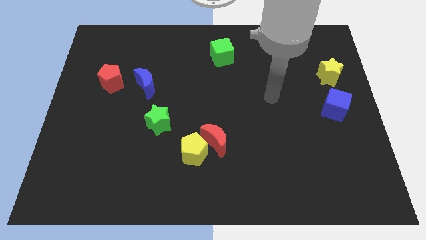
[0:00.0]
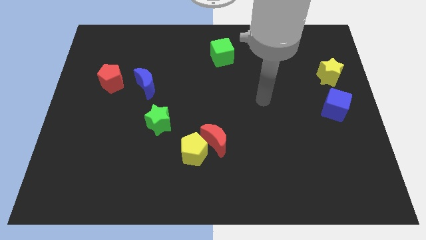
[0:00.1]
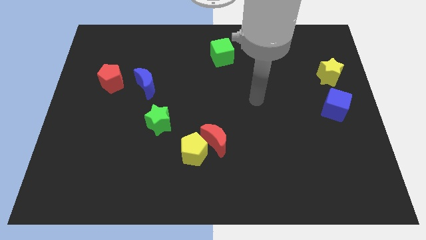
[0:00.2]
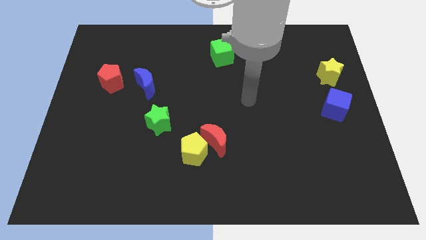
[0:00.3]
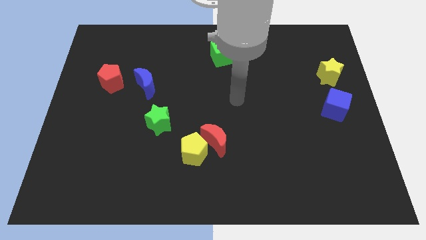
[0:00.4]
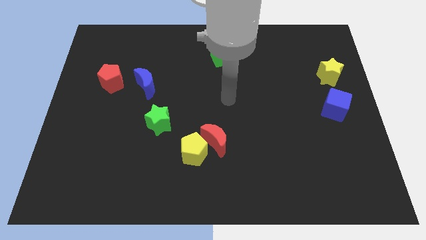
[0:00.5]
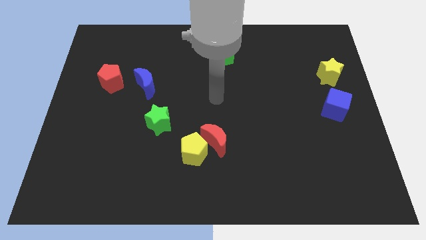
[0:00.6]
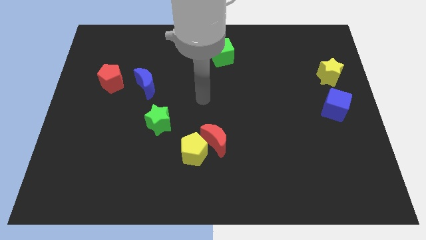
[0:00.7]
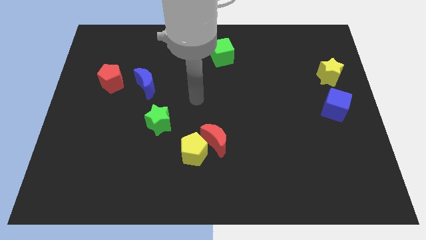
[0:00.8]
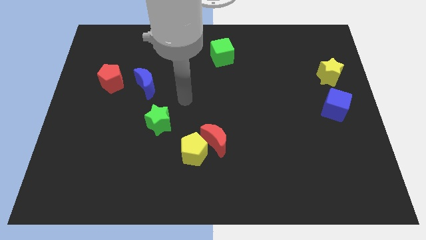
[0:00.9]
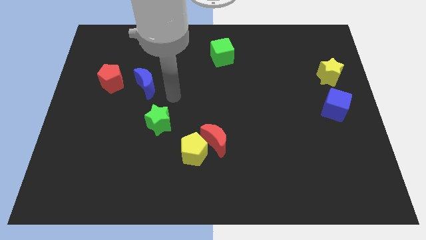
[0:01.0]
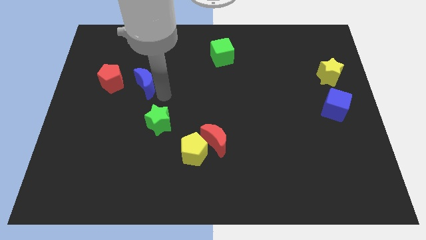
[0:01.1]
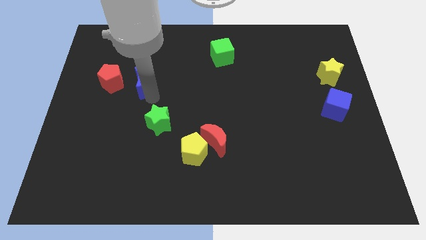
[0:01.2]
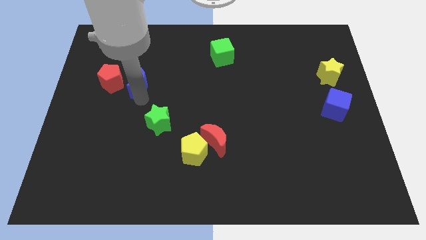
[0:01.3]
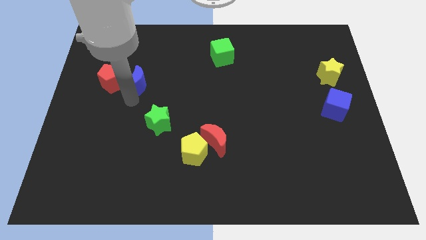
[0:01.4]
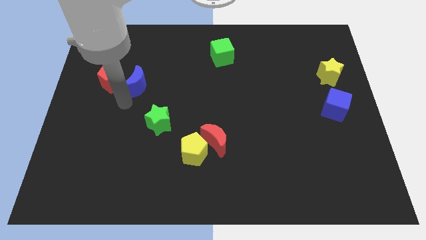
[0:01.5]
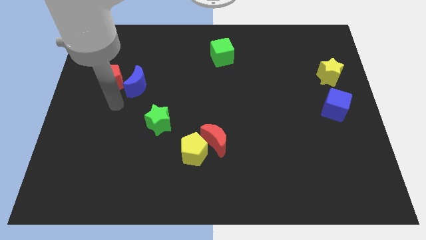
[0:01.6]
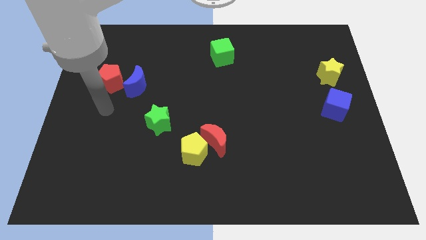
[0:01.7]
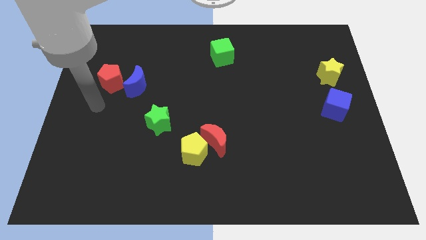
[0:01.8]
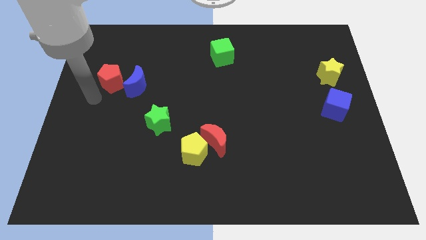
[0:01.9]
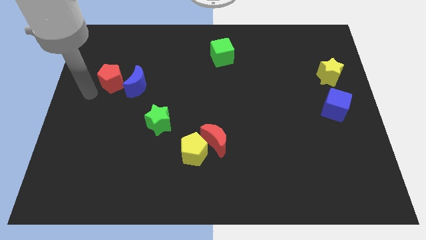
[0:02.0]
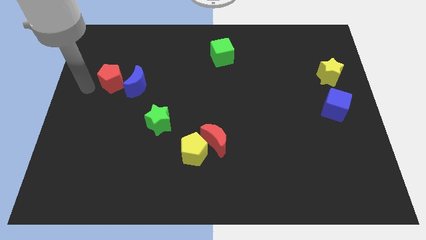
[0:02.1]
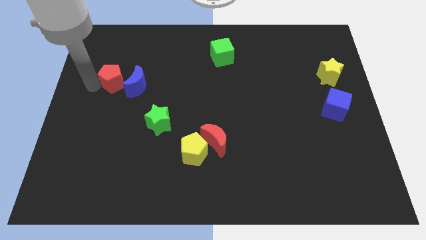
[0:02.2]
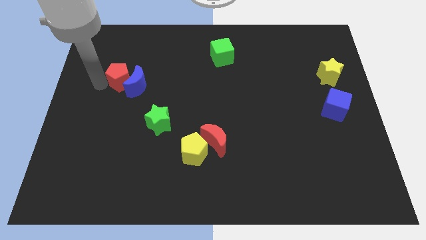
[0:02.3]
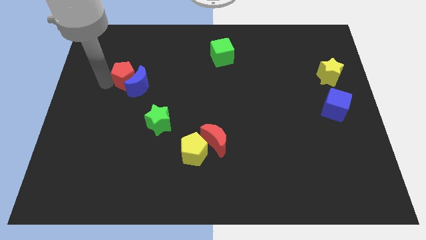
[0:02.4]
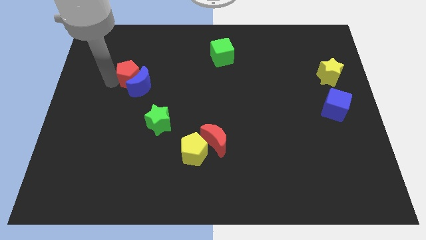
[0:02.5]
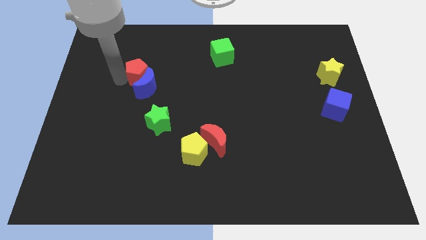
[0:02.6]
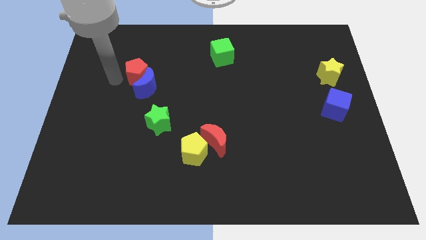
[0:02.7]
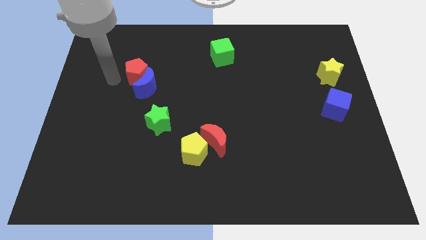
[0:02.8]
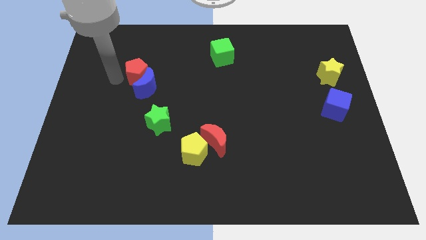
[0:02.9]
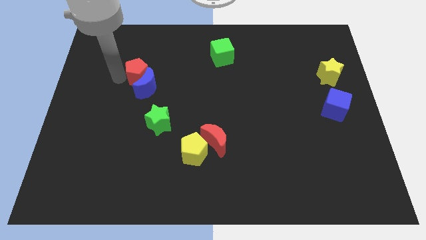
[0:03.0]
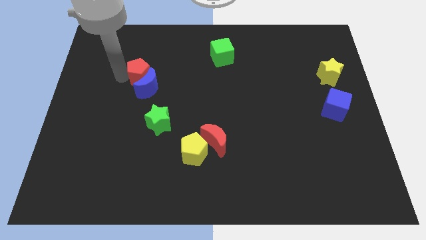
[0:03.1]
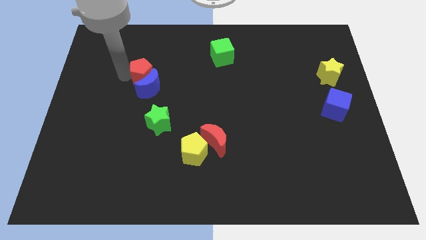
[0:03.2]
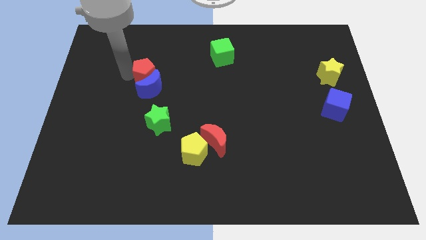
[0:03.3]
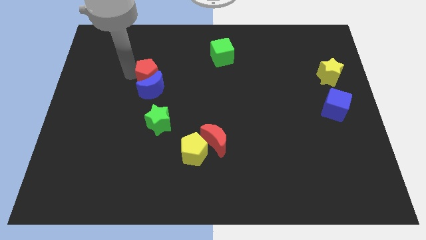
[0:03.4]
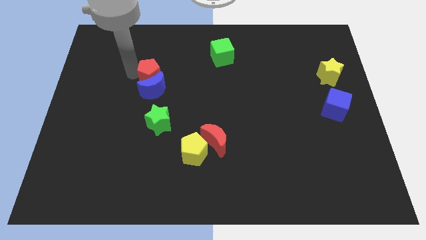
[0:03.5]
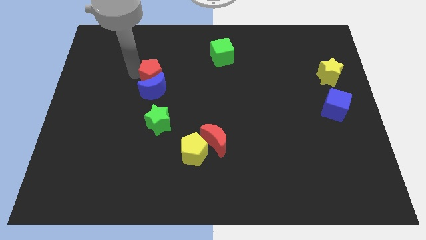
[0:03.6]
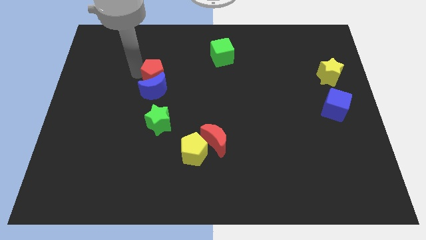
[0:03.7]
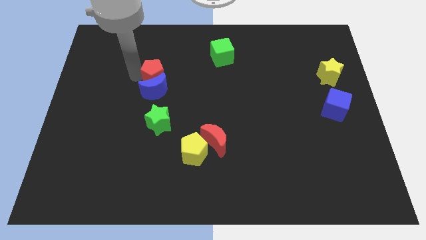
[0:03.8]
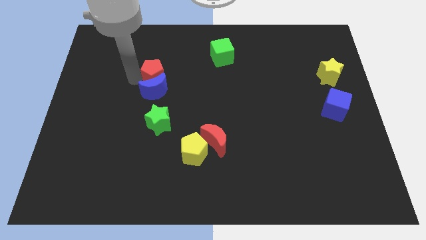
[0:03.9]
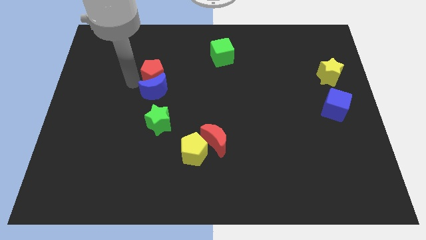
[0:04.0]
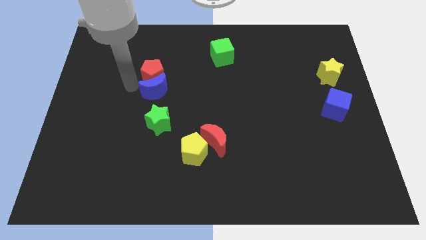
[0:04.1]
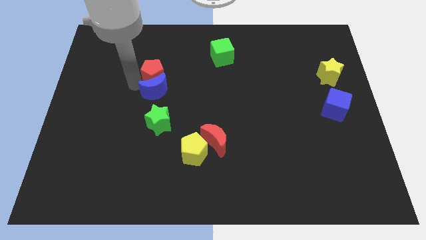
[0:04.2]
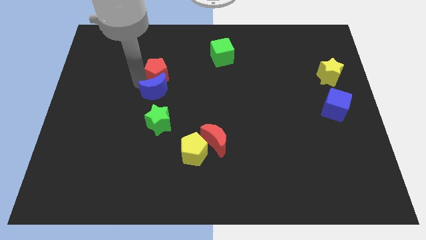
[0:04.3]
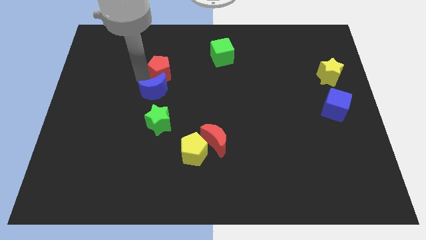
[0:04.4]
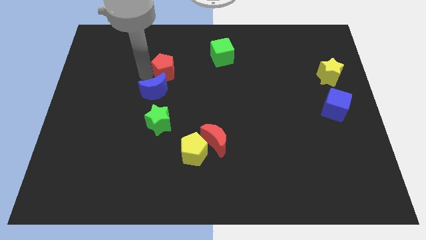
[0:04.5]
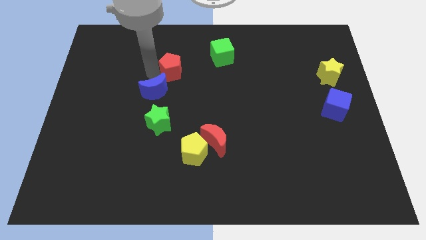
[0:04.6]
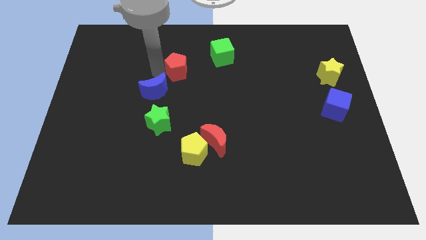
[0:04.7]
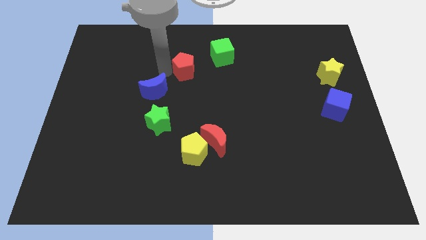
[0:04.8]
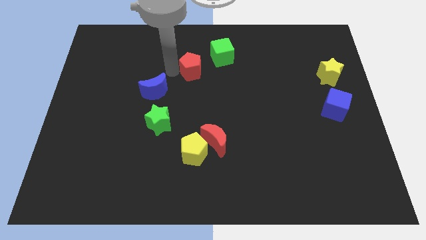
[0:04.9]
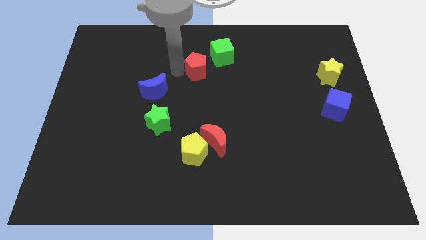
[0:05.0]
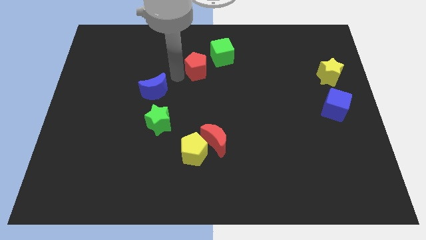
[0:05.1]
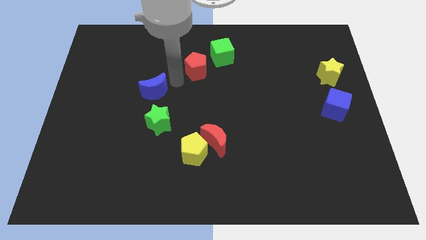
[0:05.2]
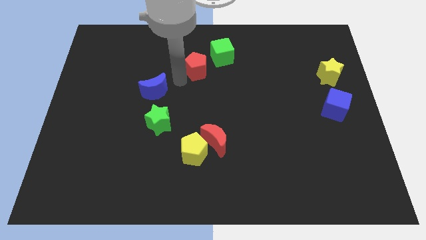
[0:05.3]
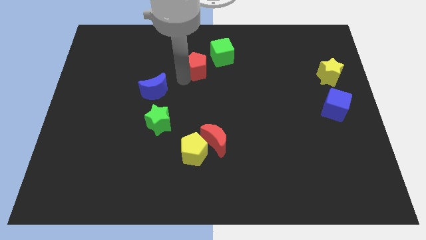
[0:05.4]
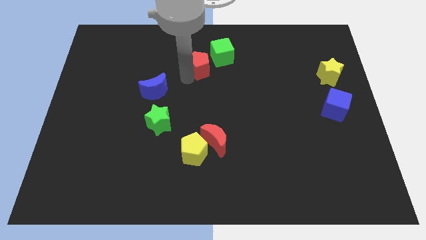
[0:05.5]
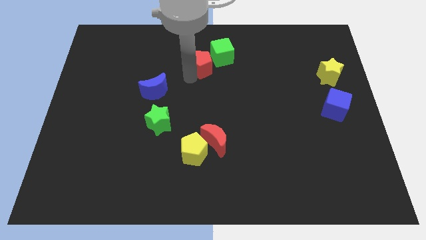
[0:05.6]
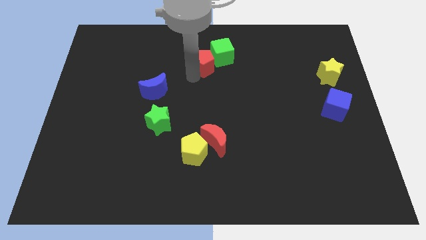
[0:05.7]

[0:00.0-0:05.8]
move the red pentagon towards the green cube

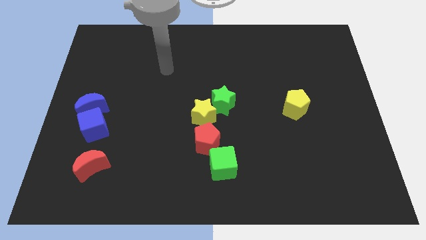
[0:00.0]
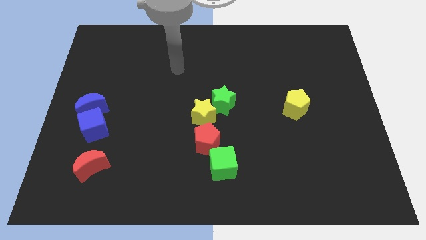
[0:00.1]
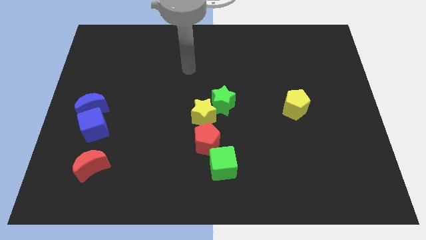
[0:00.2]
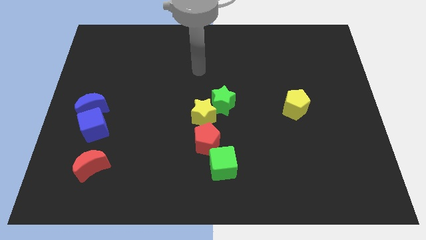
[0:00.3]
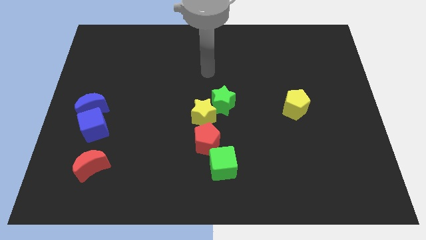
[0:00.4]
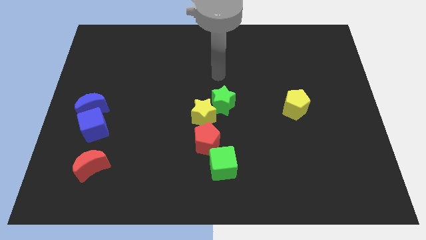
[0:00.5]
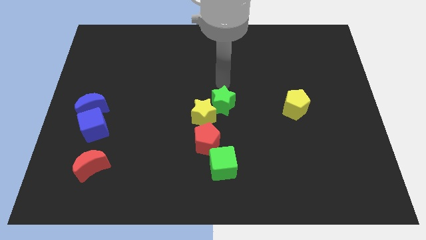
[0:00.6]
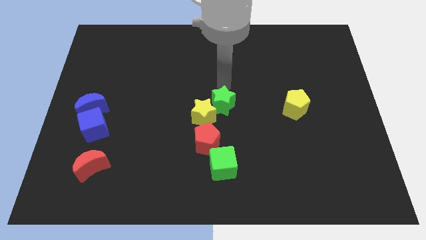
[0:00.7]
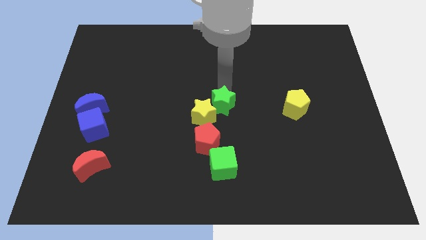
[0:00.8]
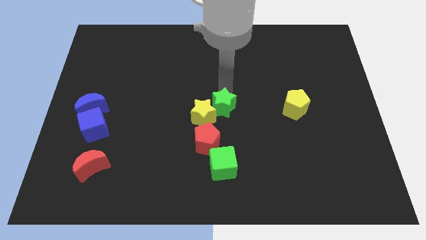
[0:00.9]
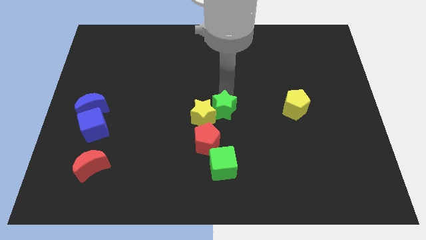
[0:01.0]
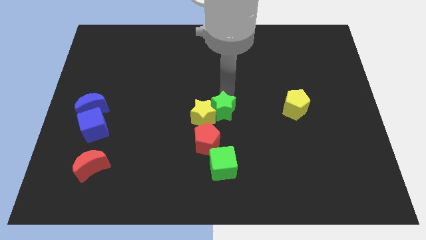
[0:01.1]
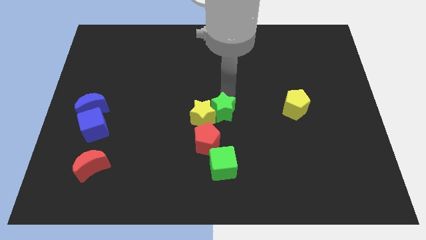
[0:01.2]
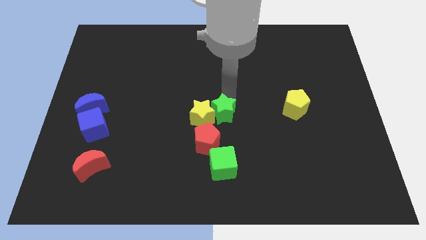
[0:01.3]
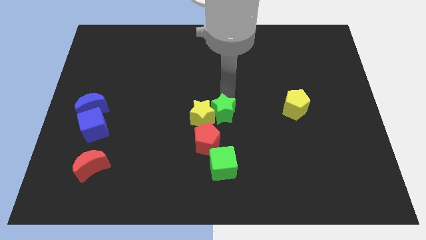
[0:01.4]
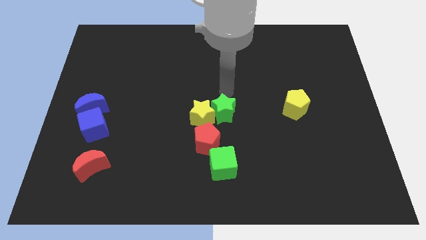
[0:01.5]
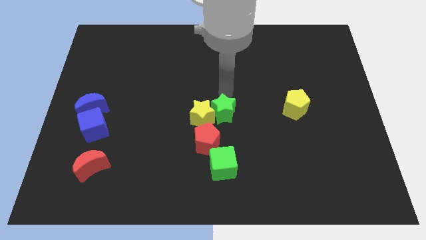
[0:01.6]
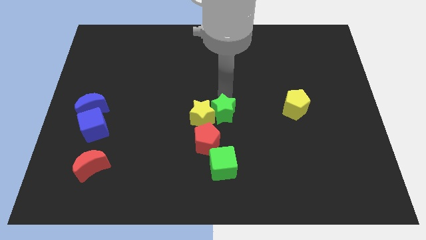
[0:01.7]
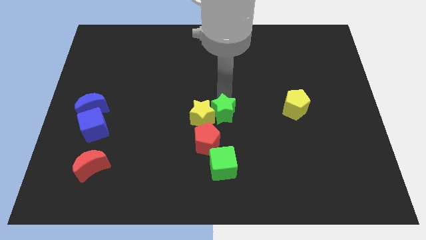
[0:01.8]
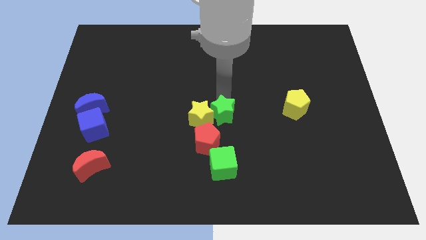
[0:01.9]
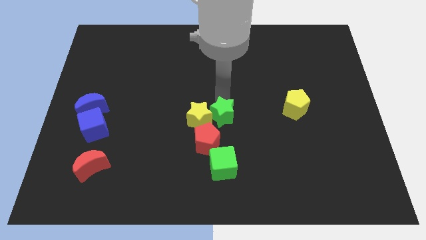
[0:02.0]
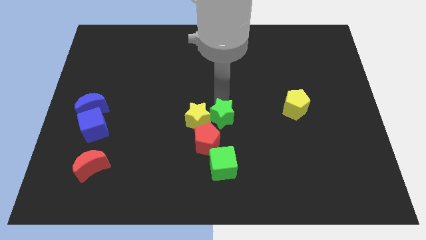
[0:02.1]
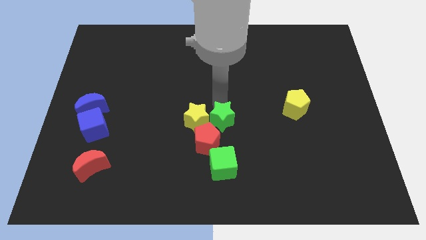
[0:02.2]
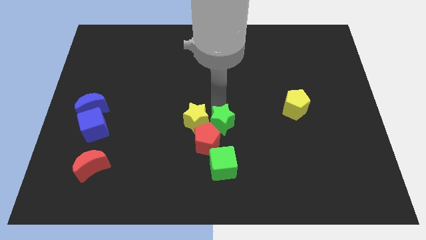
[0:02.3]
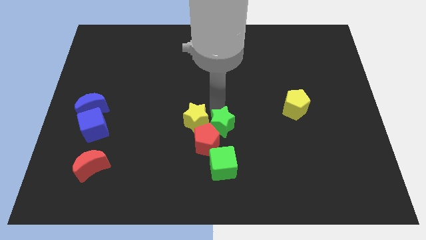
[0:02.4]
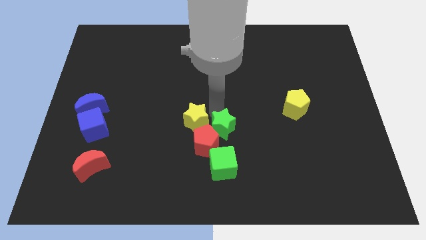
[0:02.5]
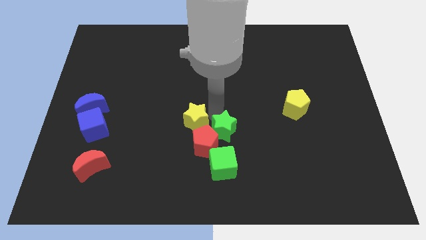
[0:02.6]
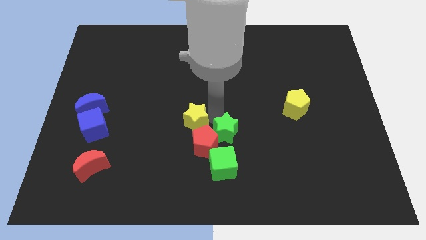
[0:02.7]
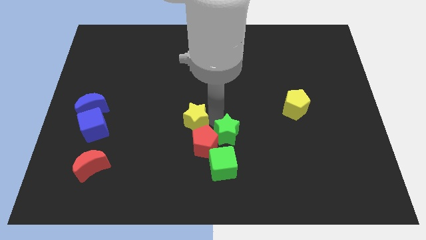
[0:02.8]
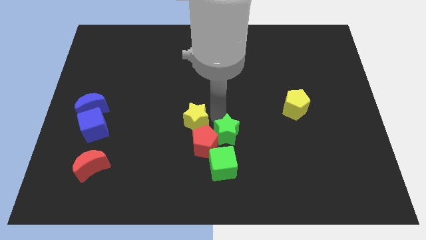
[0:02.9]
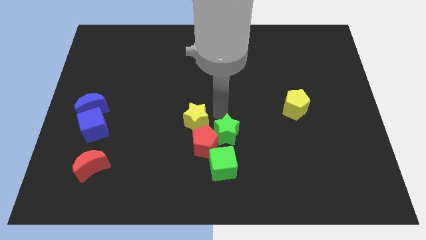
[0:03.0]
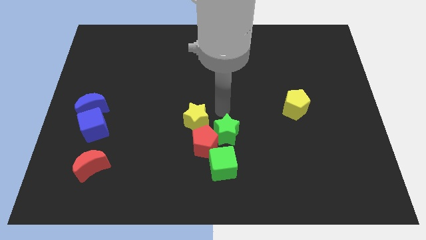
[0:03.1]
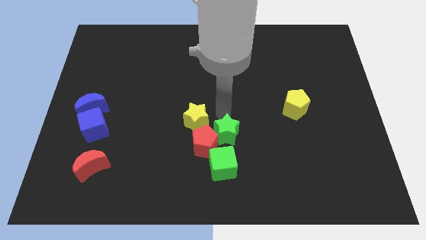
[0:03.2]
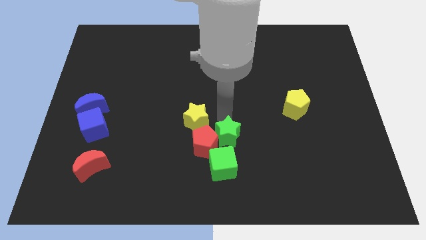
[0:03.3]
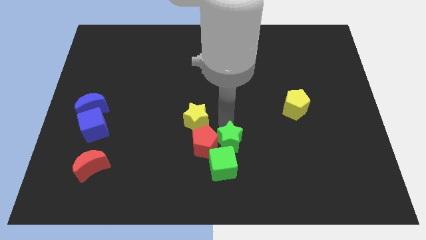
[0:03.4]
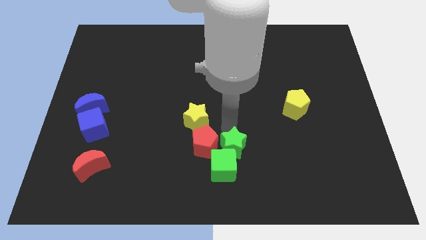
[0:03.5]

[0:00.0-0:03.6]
slide the green star close to the green cube
